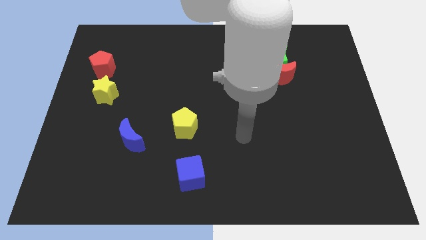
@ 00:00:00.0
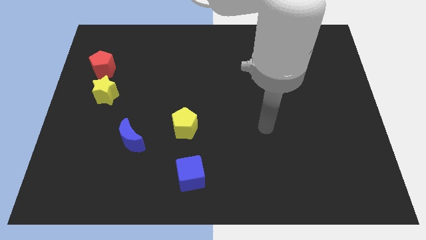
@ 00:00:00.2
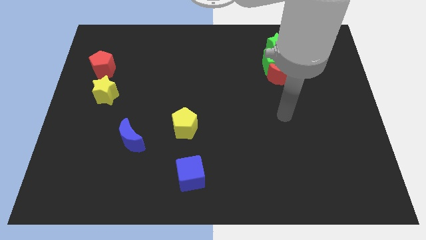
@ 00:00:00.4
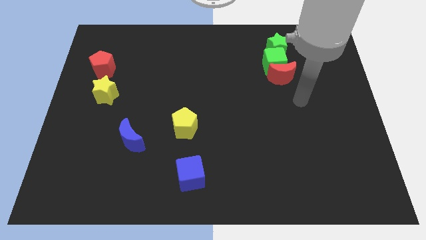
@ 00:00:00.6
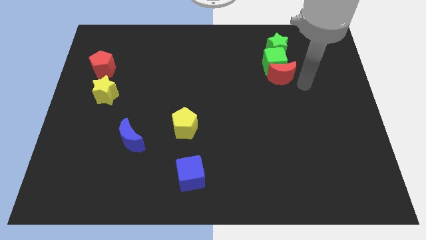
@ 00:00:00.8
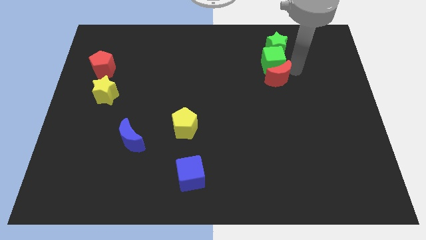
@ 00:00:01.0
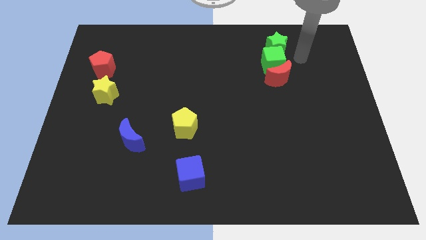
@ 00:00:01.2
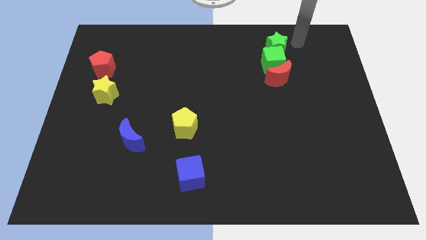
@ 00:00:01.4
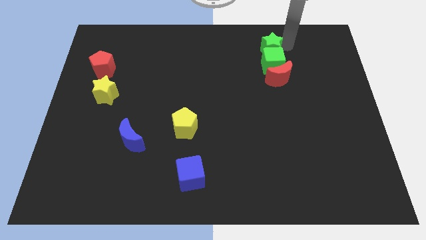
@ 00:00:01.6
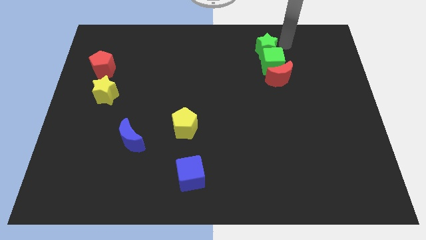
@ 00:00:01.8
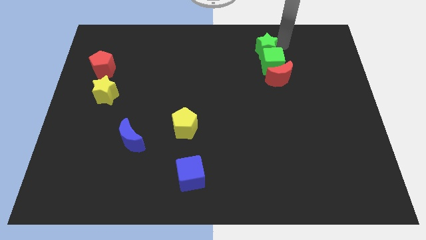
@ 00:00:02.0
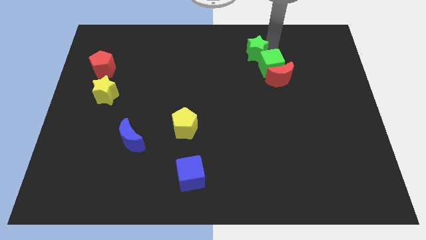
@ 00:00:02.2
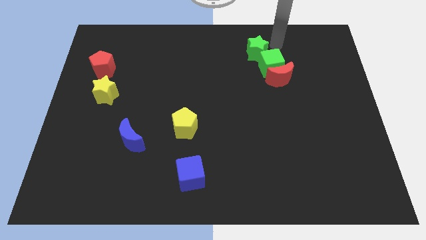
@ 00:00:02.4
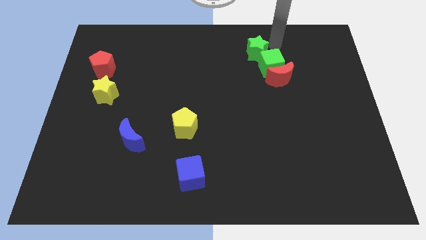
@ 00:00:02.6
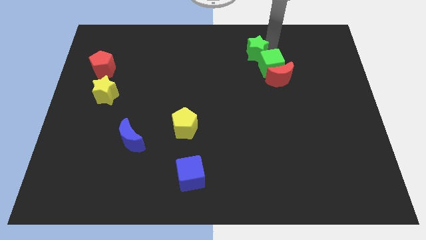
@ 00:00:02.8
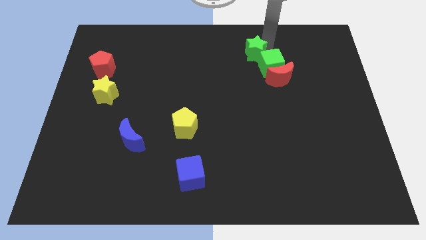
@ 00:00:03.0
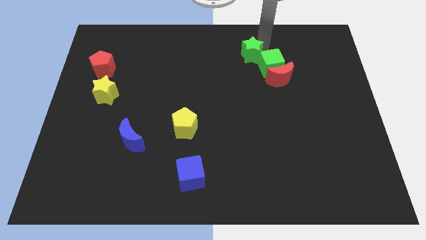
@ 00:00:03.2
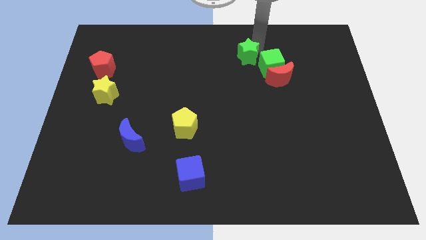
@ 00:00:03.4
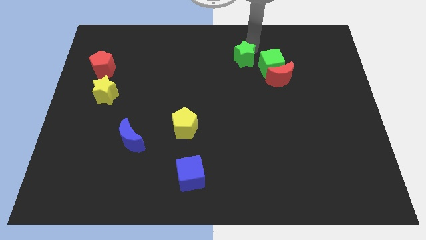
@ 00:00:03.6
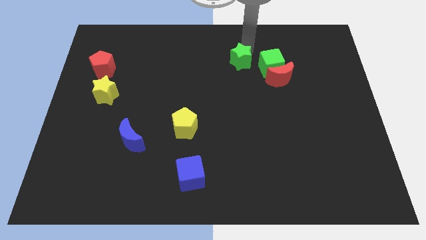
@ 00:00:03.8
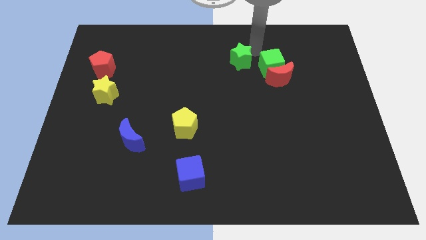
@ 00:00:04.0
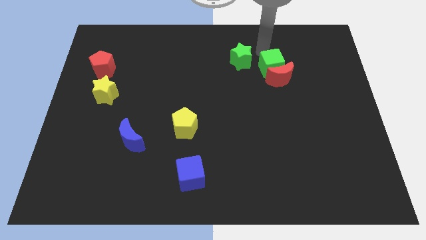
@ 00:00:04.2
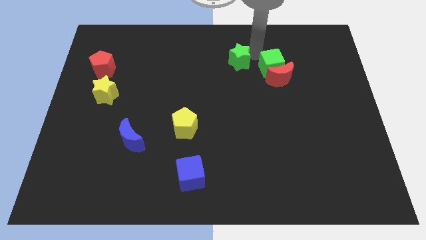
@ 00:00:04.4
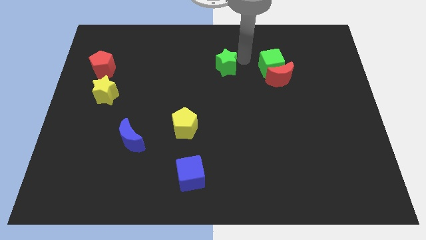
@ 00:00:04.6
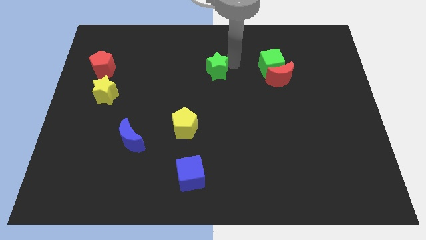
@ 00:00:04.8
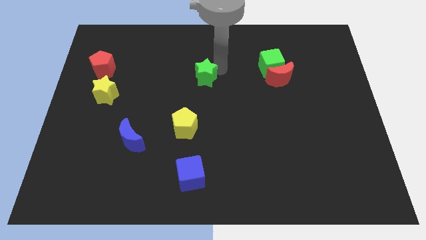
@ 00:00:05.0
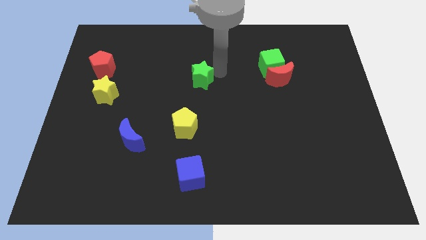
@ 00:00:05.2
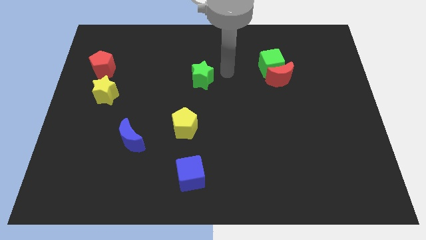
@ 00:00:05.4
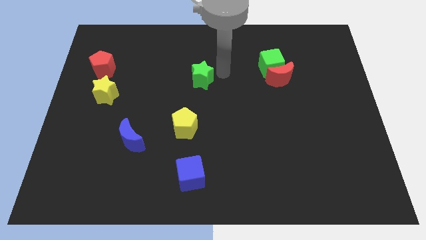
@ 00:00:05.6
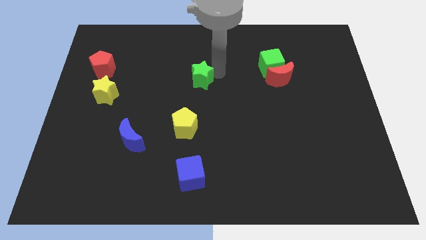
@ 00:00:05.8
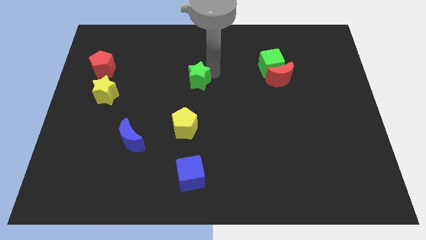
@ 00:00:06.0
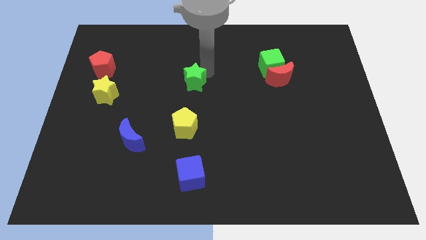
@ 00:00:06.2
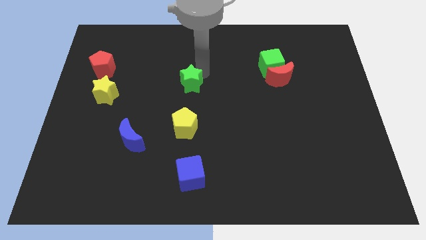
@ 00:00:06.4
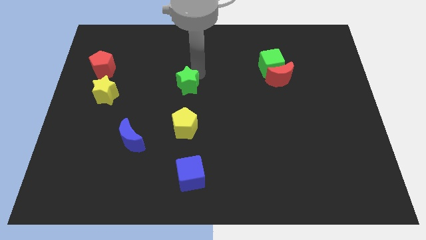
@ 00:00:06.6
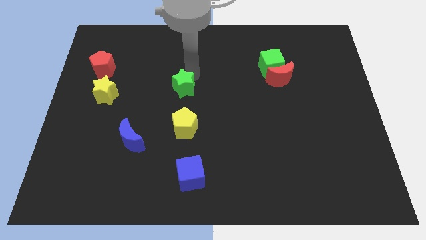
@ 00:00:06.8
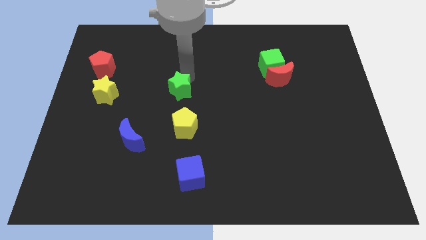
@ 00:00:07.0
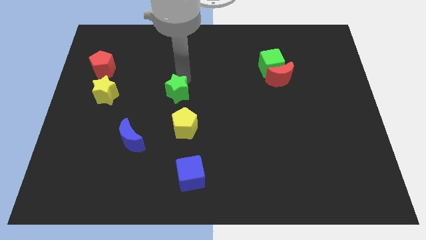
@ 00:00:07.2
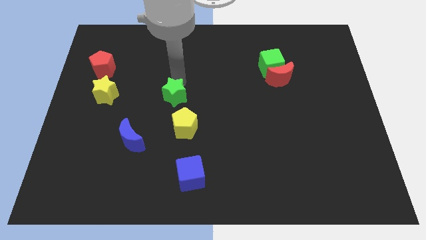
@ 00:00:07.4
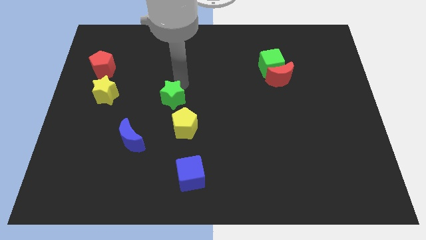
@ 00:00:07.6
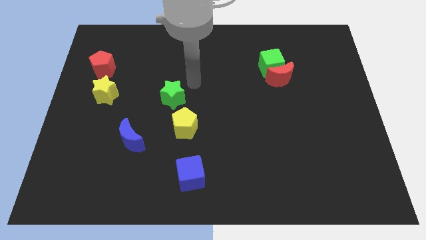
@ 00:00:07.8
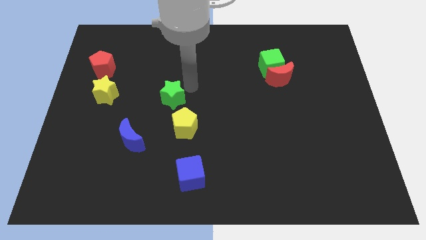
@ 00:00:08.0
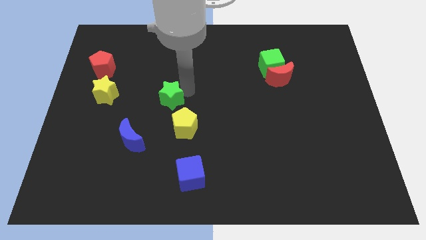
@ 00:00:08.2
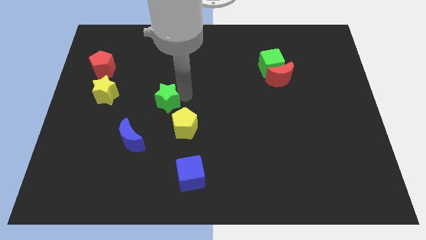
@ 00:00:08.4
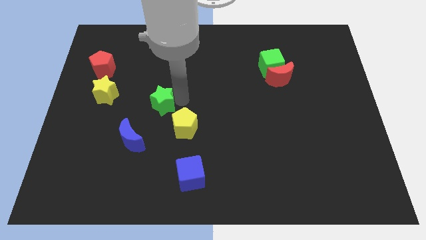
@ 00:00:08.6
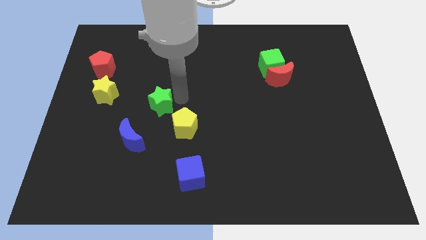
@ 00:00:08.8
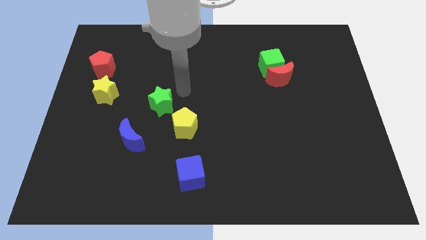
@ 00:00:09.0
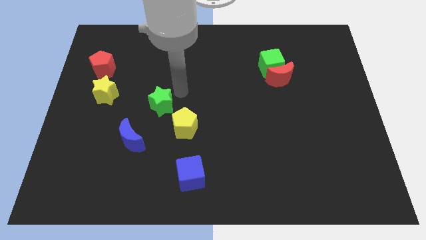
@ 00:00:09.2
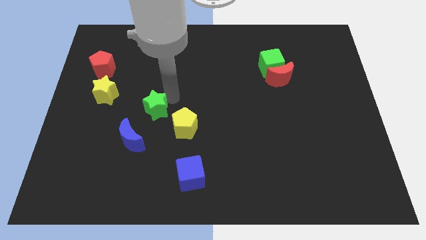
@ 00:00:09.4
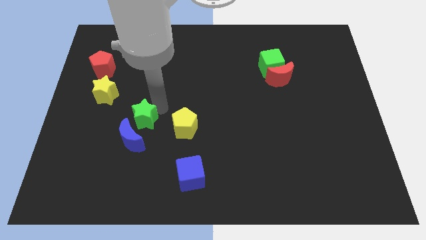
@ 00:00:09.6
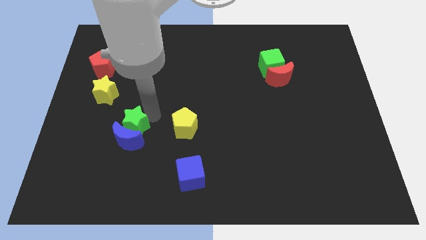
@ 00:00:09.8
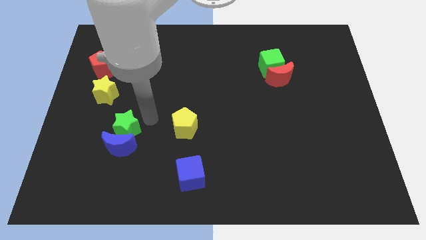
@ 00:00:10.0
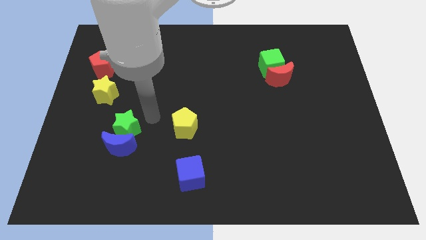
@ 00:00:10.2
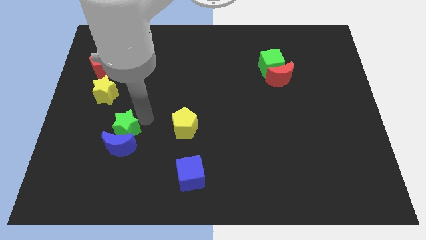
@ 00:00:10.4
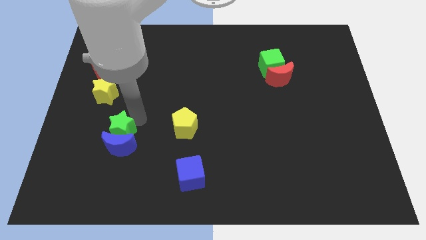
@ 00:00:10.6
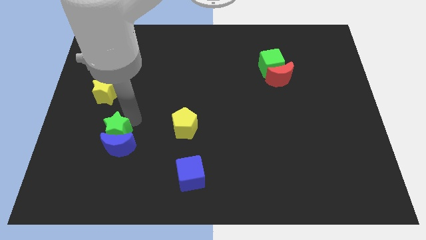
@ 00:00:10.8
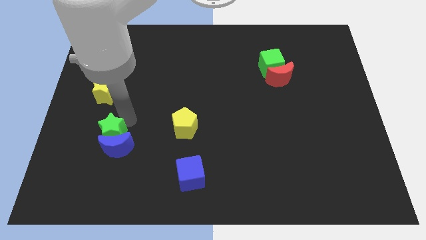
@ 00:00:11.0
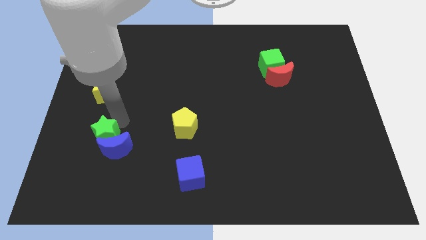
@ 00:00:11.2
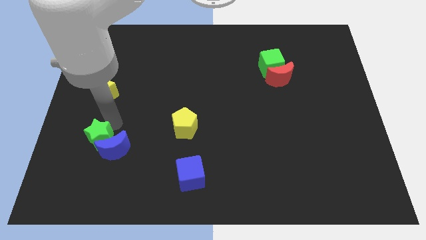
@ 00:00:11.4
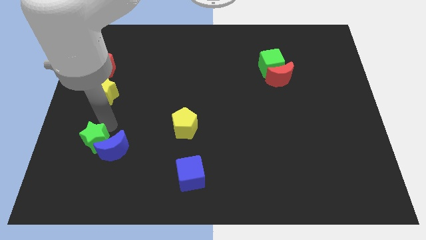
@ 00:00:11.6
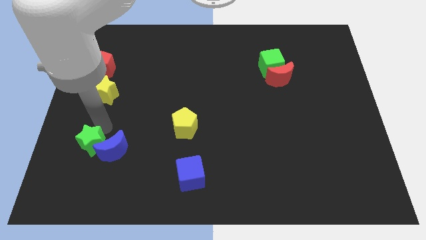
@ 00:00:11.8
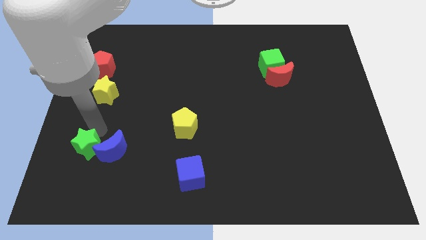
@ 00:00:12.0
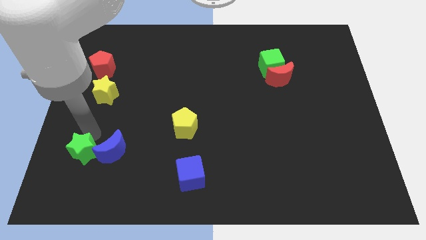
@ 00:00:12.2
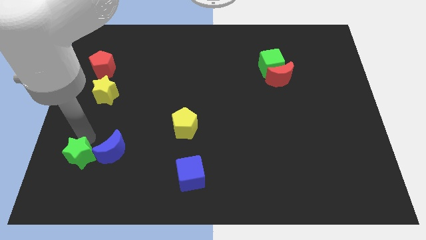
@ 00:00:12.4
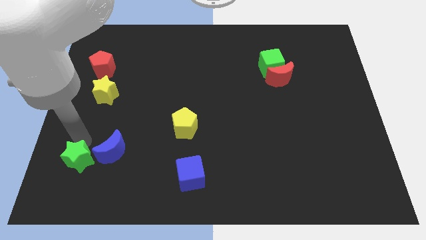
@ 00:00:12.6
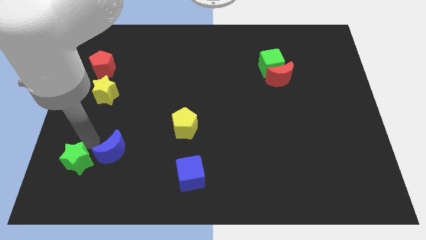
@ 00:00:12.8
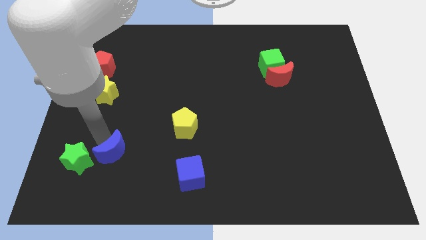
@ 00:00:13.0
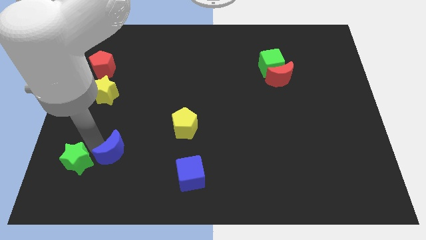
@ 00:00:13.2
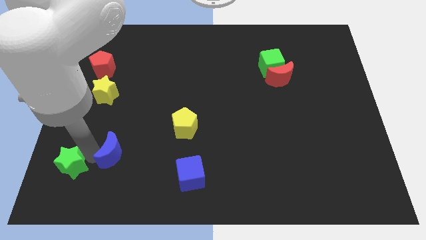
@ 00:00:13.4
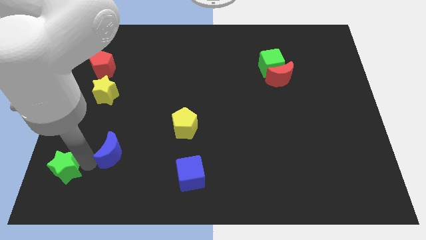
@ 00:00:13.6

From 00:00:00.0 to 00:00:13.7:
slide the green star to the bottom left corner

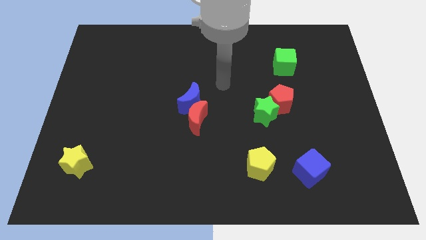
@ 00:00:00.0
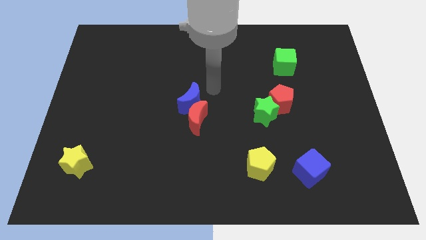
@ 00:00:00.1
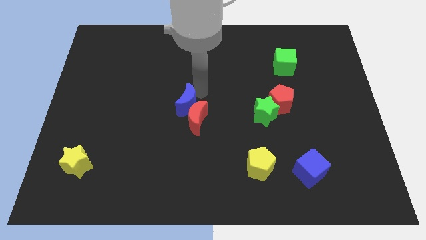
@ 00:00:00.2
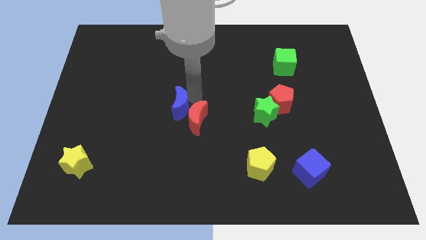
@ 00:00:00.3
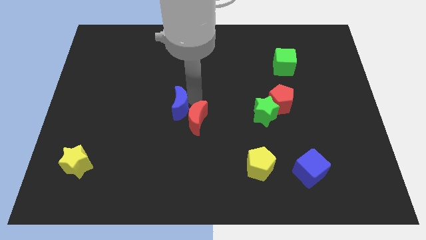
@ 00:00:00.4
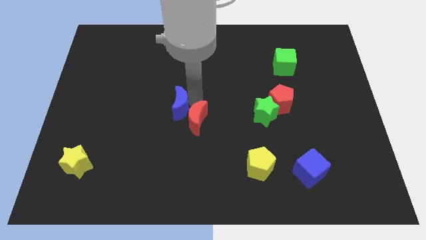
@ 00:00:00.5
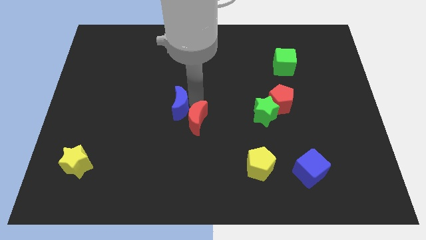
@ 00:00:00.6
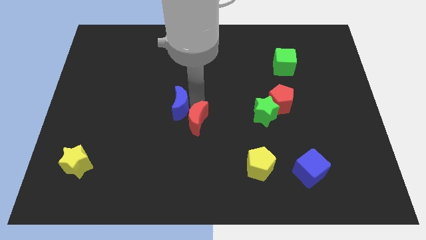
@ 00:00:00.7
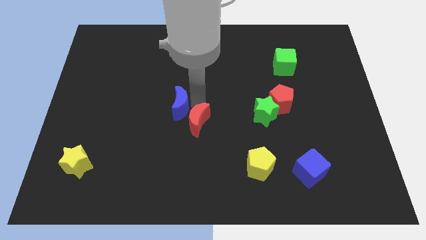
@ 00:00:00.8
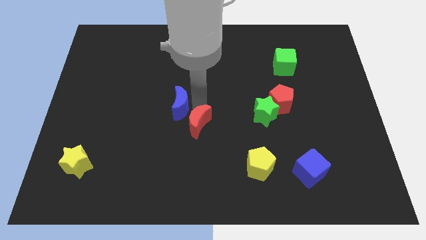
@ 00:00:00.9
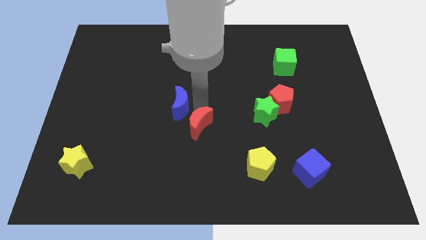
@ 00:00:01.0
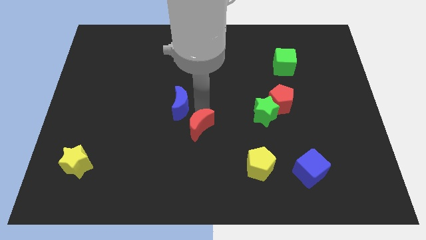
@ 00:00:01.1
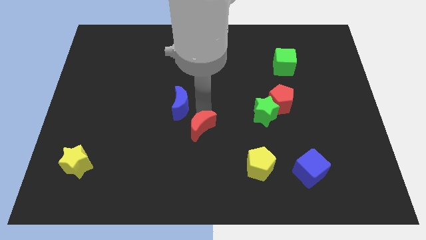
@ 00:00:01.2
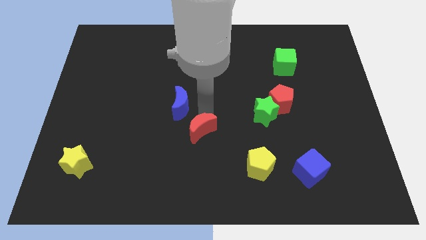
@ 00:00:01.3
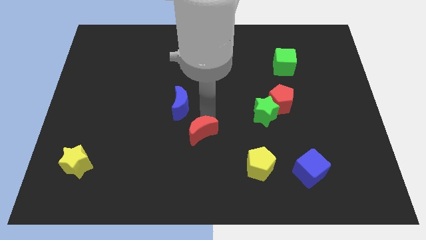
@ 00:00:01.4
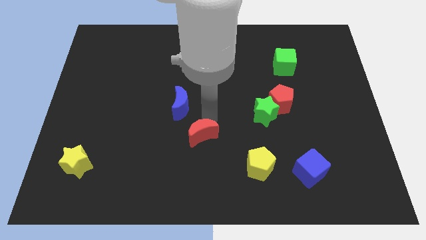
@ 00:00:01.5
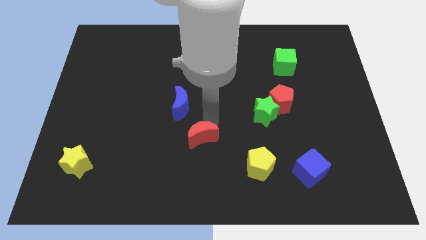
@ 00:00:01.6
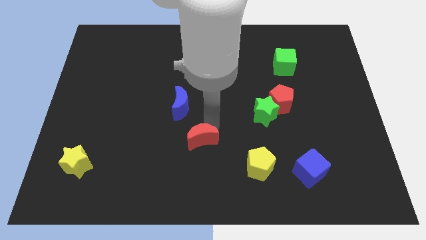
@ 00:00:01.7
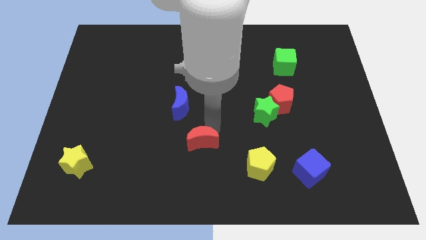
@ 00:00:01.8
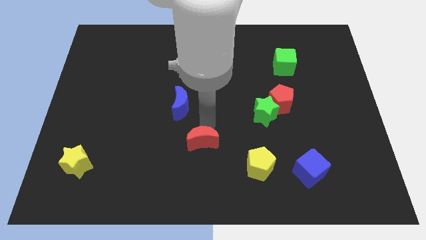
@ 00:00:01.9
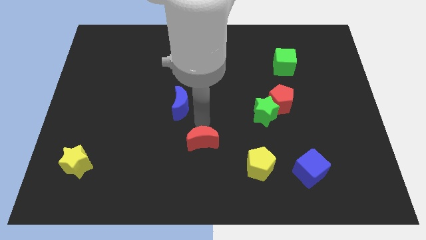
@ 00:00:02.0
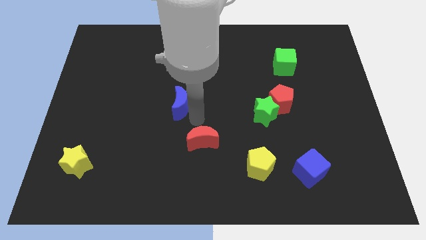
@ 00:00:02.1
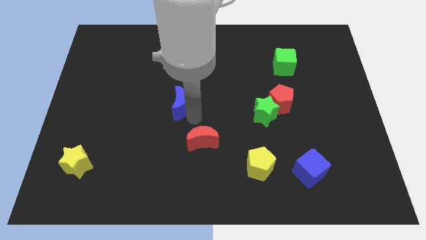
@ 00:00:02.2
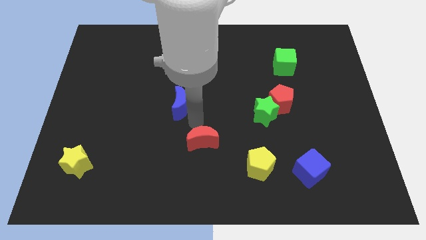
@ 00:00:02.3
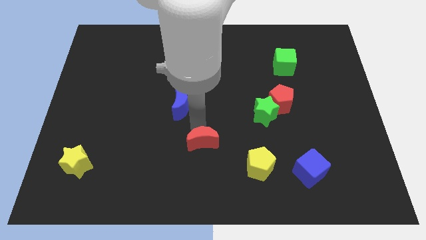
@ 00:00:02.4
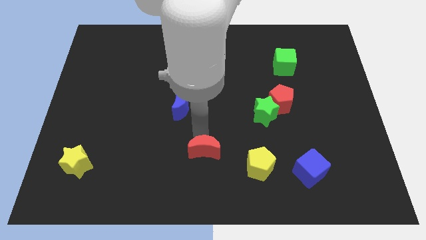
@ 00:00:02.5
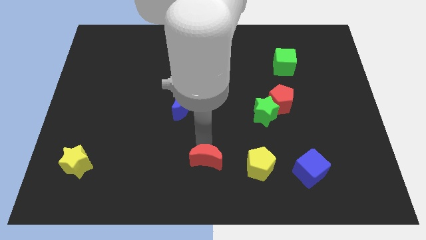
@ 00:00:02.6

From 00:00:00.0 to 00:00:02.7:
push the red moon to the bottom side
